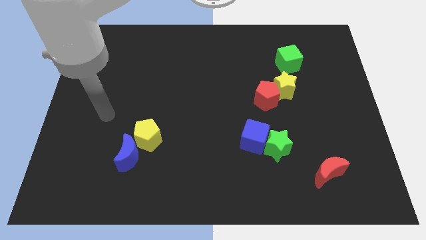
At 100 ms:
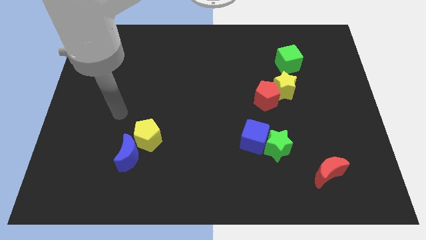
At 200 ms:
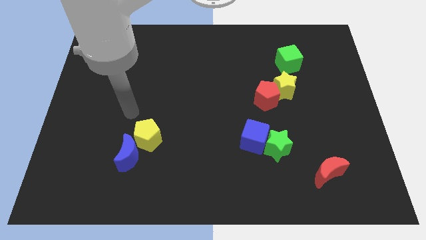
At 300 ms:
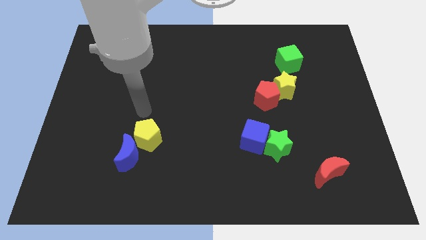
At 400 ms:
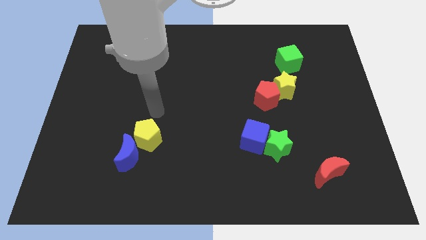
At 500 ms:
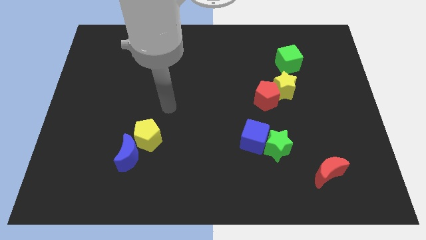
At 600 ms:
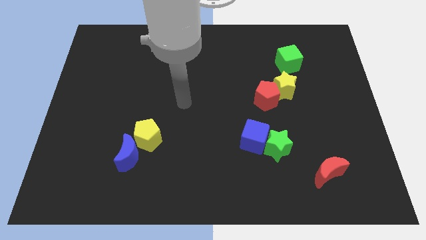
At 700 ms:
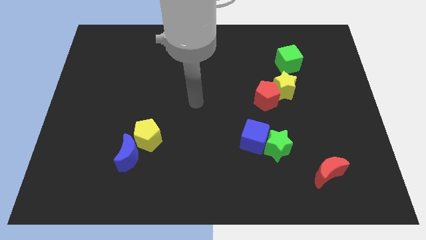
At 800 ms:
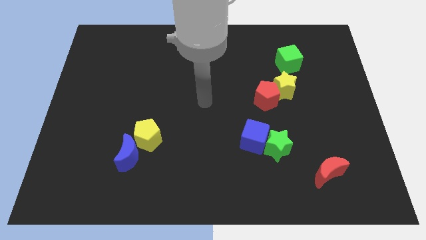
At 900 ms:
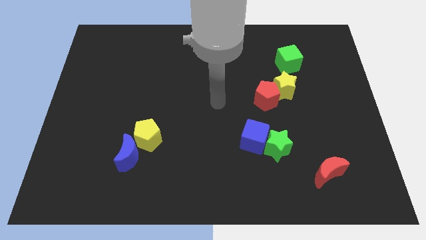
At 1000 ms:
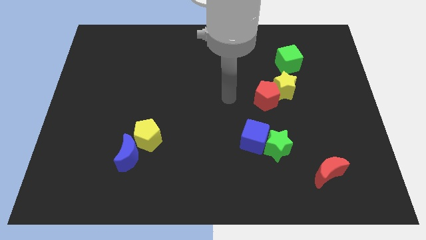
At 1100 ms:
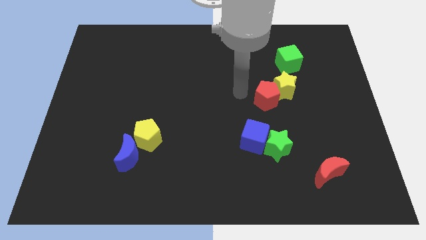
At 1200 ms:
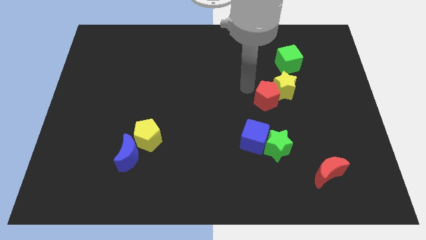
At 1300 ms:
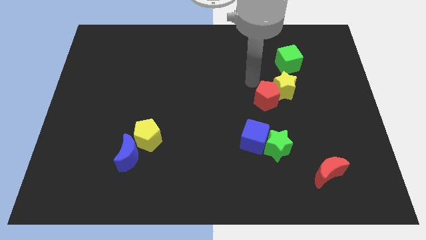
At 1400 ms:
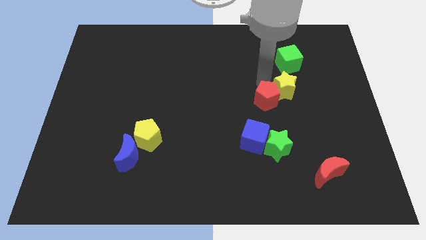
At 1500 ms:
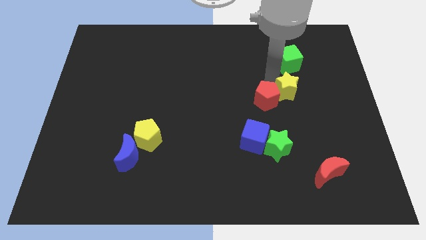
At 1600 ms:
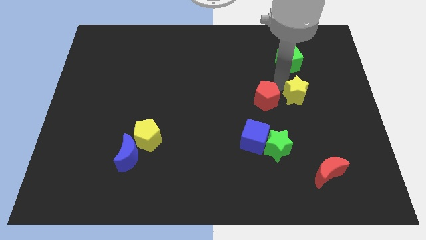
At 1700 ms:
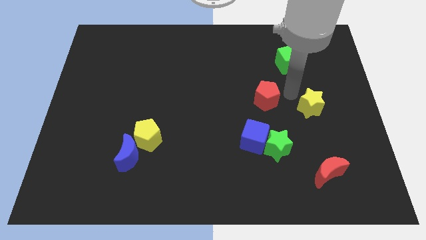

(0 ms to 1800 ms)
move the red pentagon away from the yellow star

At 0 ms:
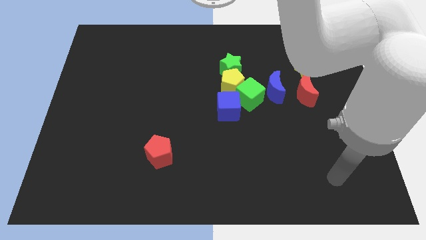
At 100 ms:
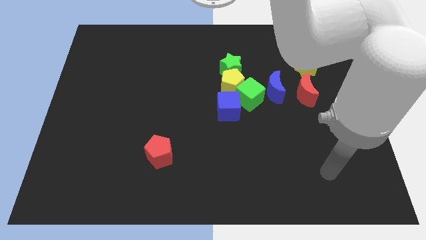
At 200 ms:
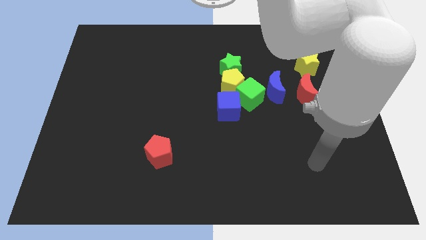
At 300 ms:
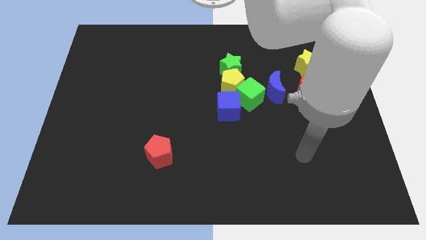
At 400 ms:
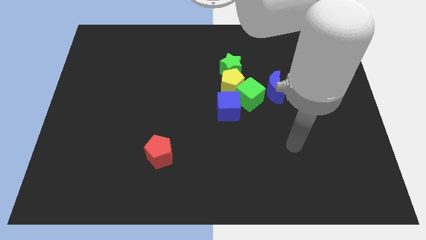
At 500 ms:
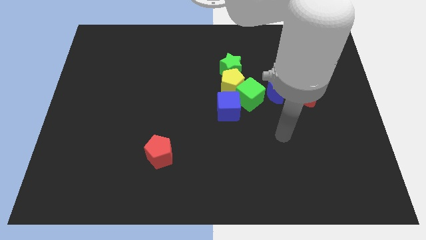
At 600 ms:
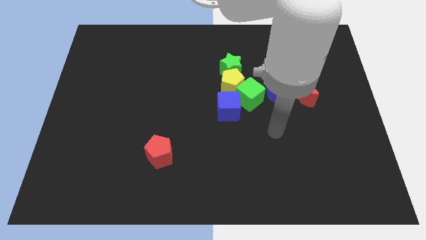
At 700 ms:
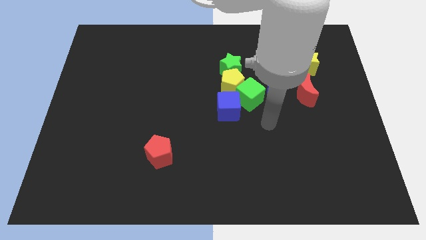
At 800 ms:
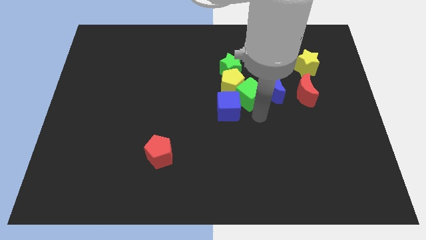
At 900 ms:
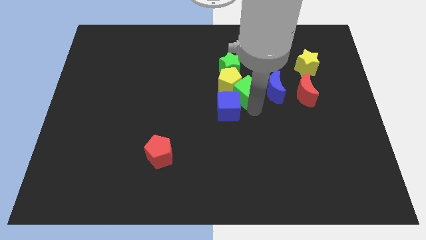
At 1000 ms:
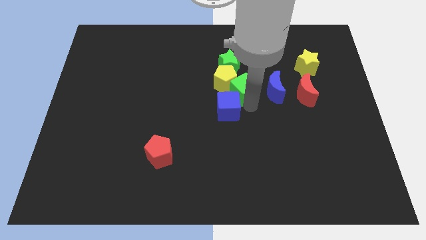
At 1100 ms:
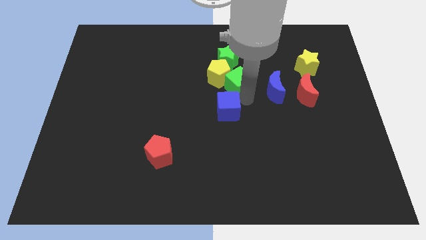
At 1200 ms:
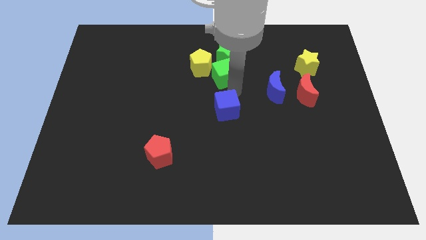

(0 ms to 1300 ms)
pull the blue cube apart from the green cube and yellow pentagon

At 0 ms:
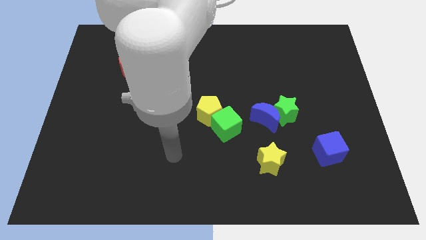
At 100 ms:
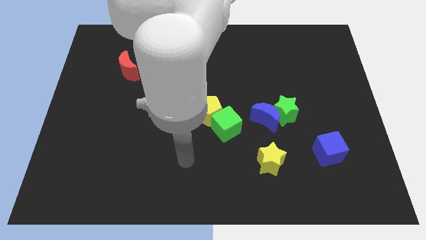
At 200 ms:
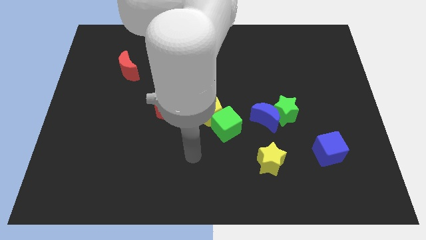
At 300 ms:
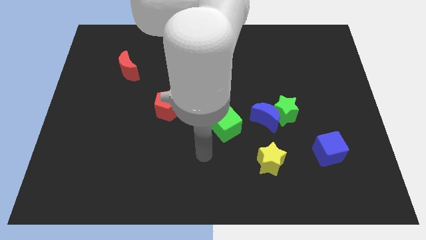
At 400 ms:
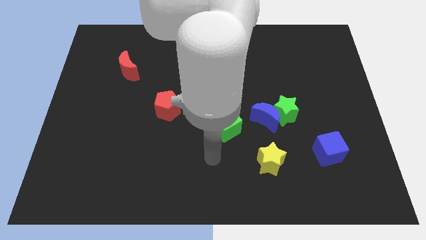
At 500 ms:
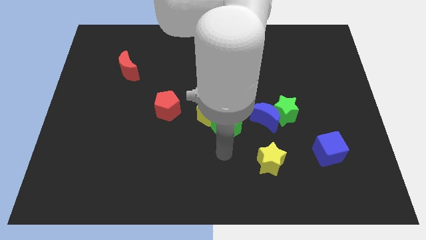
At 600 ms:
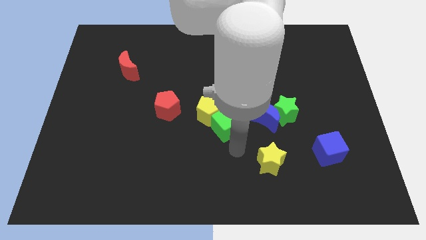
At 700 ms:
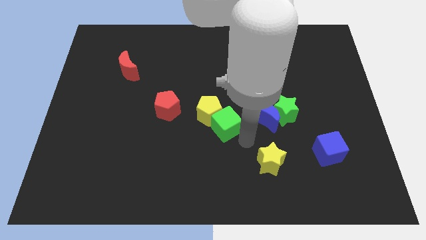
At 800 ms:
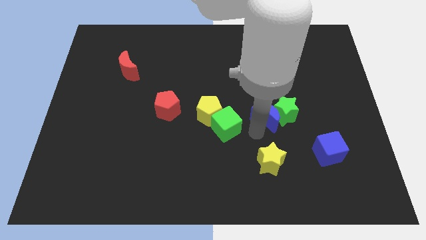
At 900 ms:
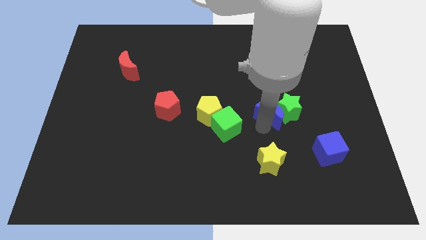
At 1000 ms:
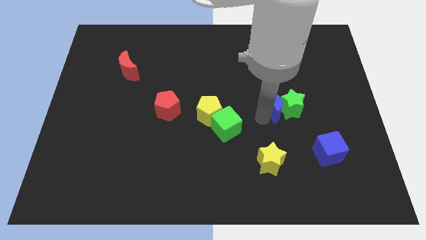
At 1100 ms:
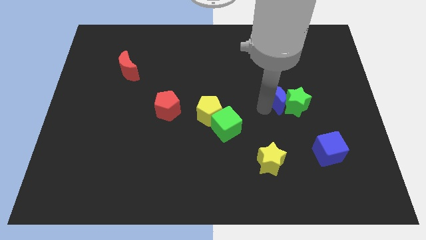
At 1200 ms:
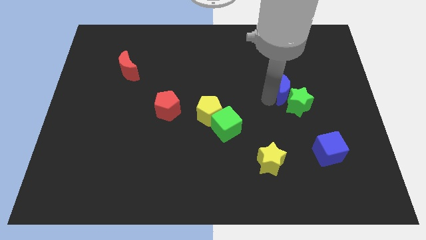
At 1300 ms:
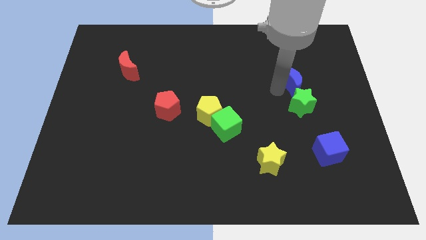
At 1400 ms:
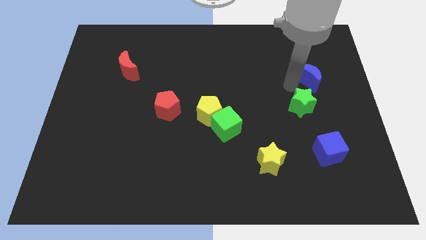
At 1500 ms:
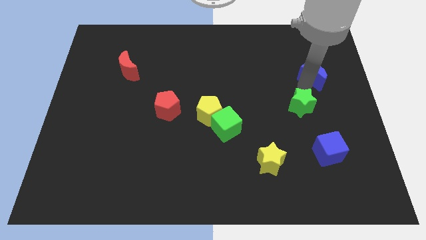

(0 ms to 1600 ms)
pull the green star apart from the blue moon

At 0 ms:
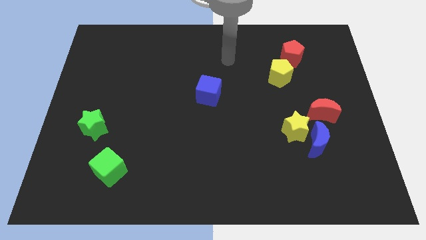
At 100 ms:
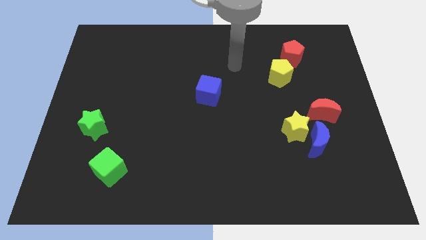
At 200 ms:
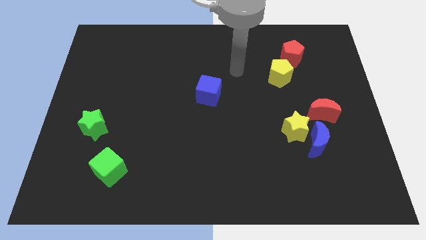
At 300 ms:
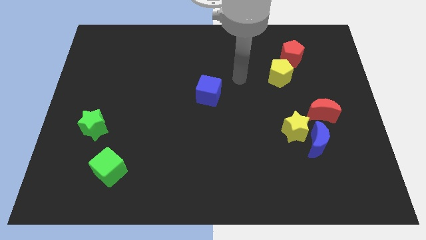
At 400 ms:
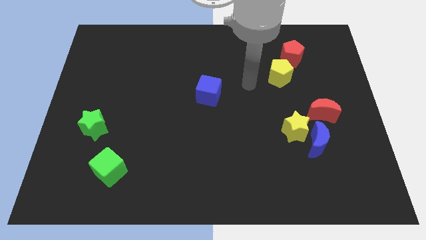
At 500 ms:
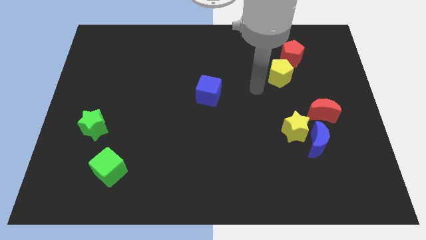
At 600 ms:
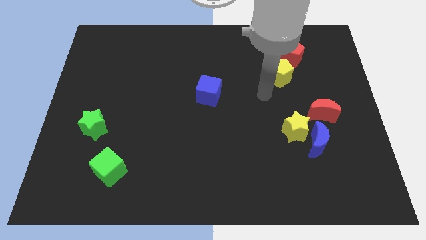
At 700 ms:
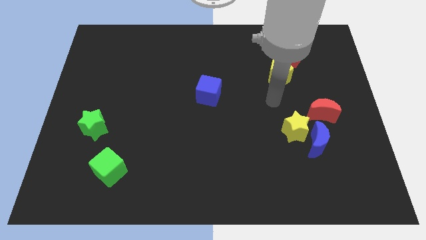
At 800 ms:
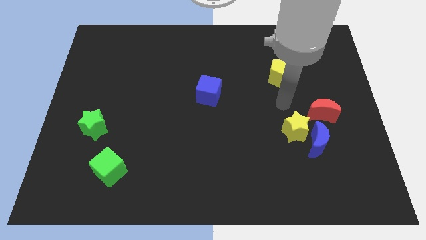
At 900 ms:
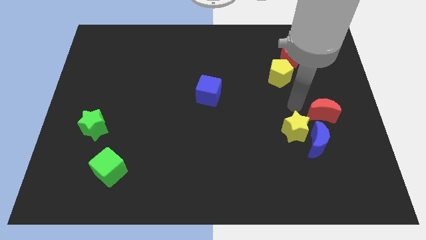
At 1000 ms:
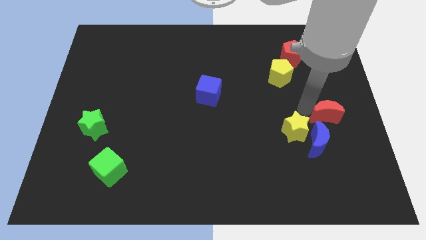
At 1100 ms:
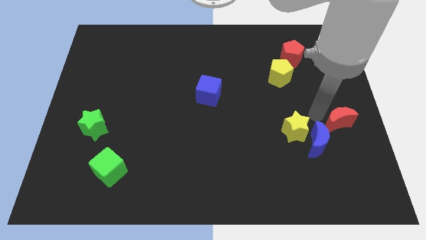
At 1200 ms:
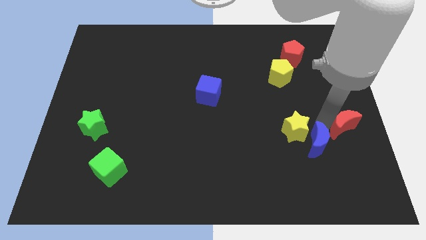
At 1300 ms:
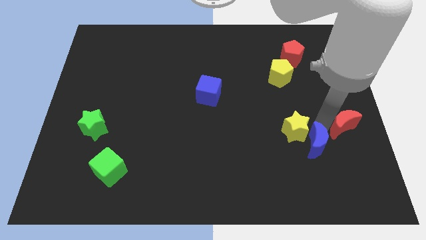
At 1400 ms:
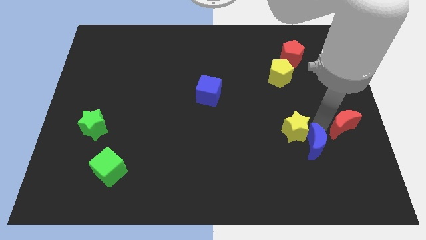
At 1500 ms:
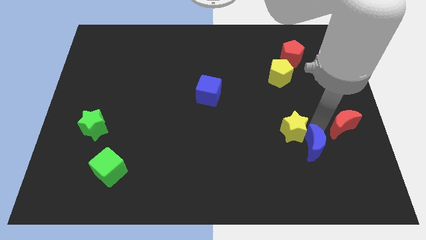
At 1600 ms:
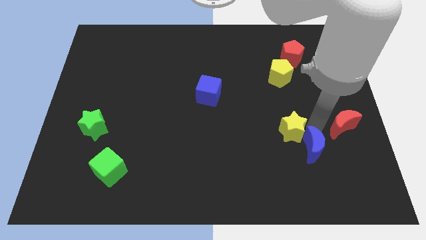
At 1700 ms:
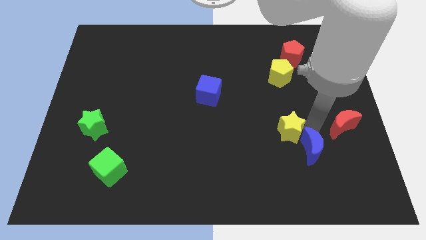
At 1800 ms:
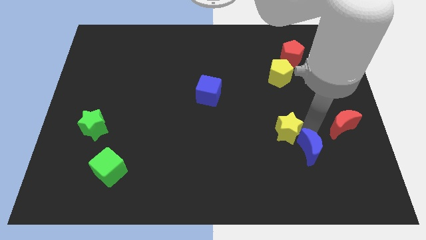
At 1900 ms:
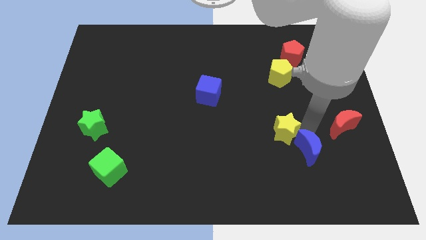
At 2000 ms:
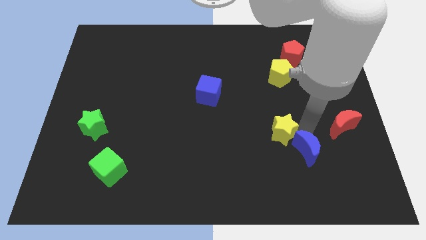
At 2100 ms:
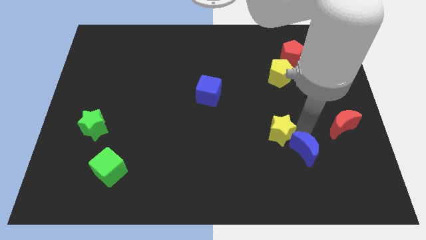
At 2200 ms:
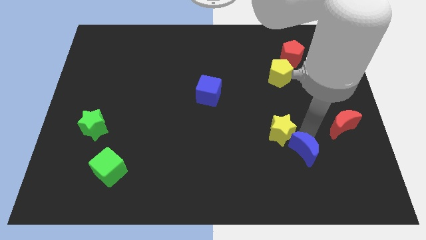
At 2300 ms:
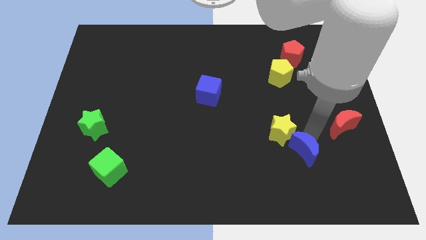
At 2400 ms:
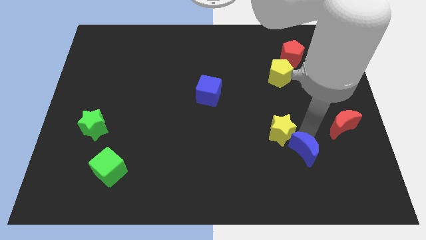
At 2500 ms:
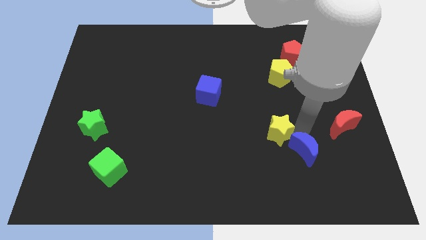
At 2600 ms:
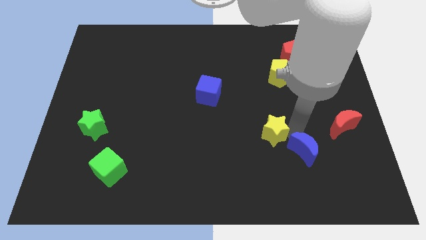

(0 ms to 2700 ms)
move the yellow star away from the blue moon and red moon

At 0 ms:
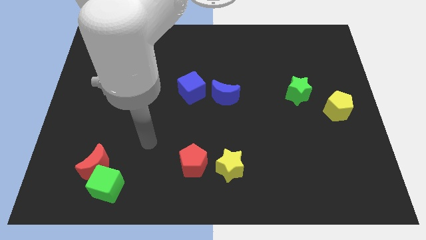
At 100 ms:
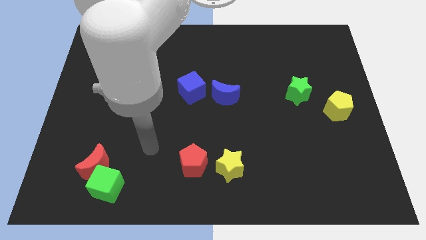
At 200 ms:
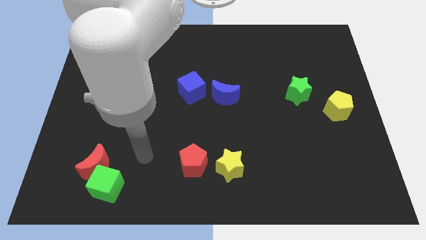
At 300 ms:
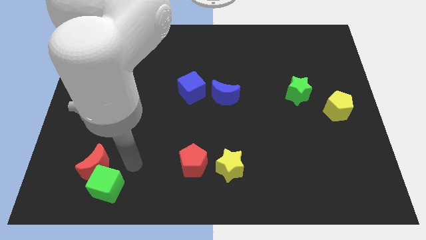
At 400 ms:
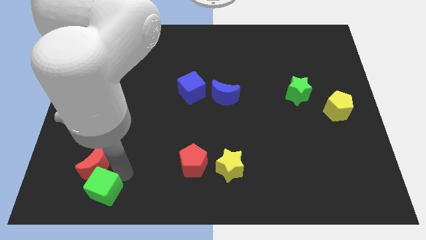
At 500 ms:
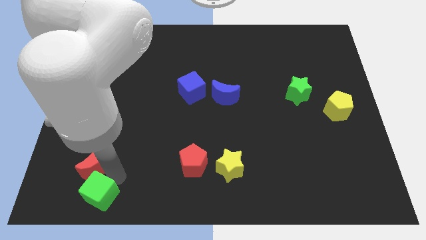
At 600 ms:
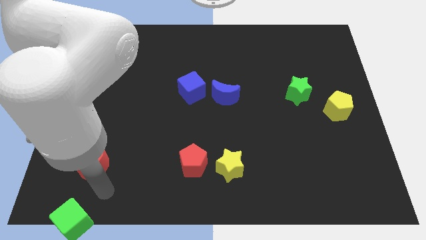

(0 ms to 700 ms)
pull the red moon apart from the green cube

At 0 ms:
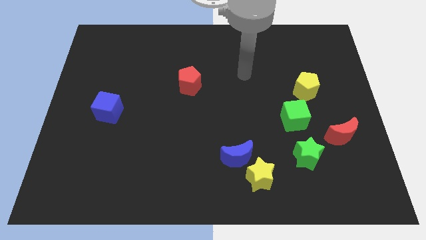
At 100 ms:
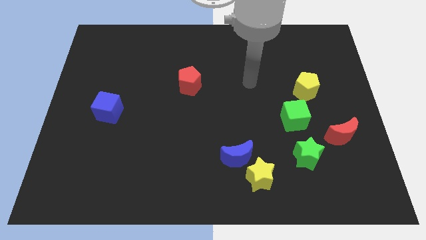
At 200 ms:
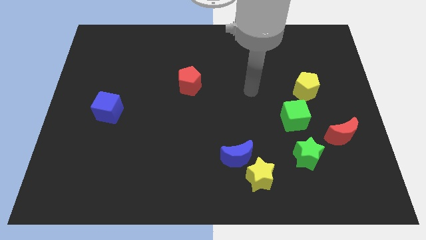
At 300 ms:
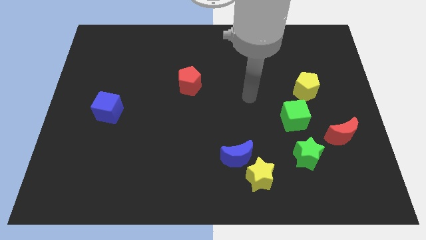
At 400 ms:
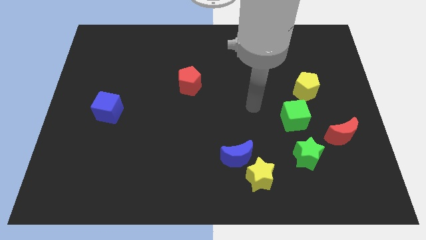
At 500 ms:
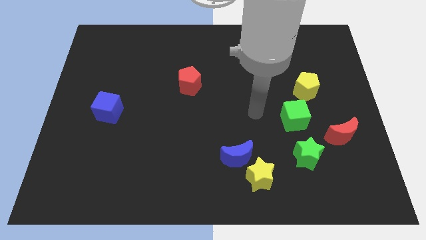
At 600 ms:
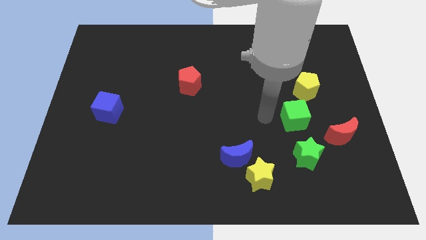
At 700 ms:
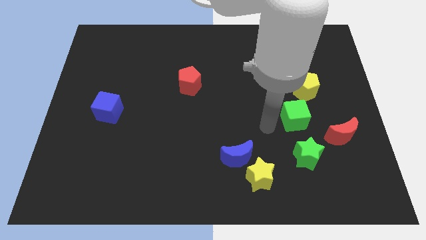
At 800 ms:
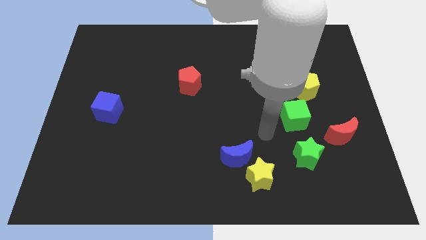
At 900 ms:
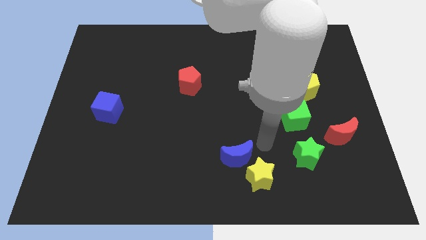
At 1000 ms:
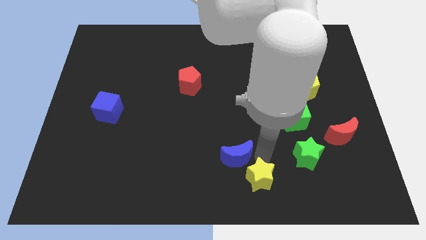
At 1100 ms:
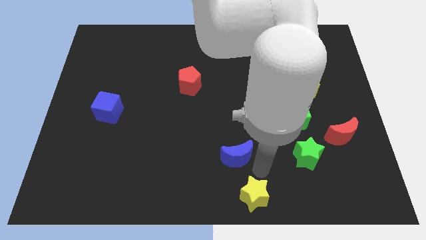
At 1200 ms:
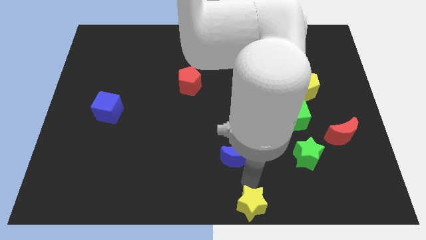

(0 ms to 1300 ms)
move the blue moon away from the yellow star

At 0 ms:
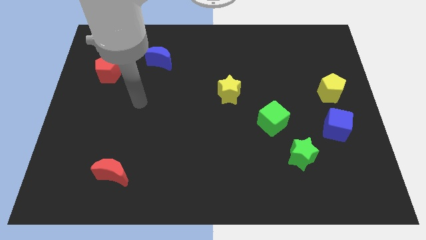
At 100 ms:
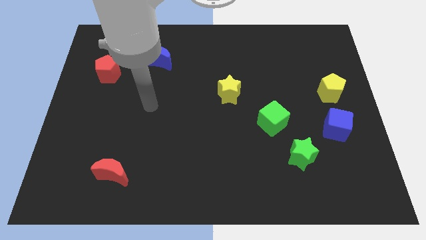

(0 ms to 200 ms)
separate the green cube from the green star
